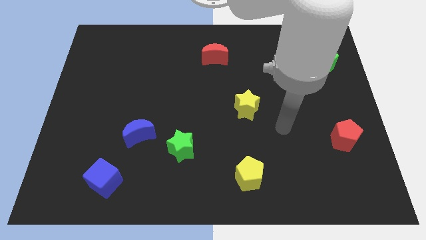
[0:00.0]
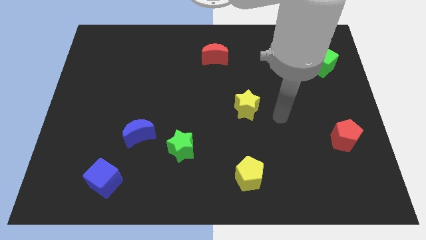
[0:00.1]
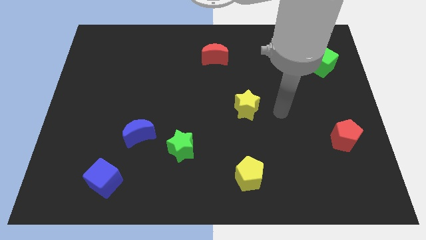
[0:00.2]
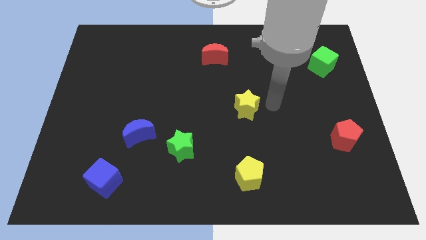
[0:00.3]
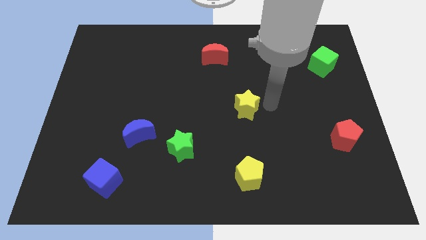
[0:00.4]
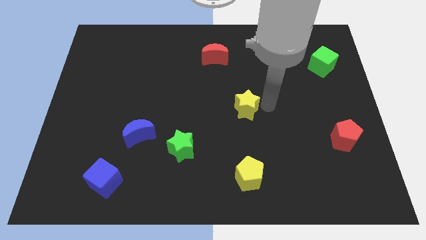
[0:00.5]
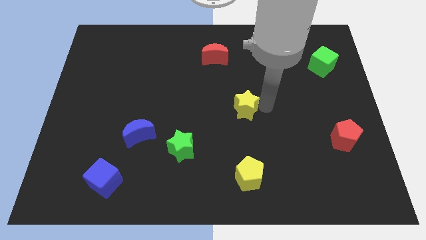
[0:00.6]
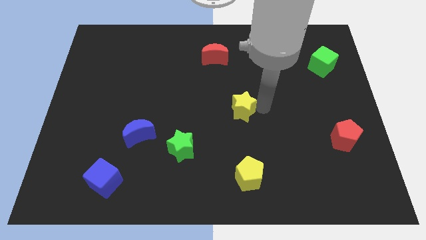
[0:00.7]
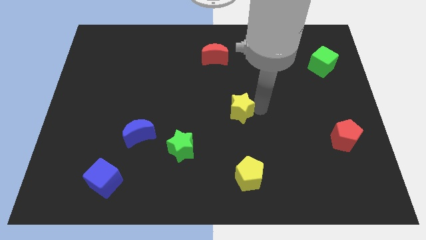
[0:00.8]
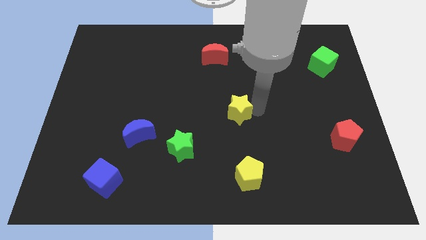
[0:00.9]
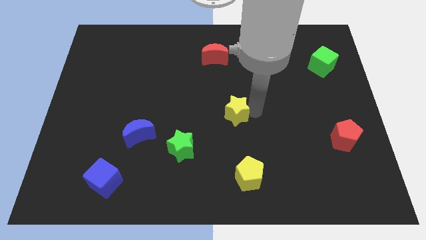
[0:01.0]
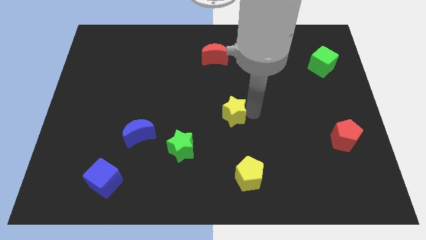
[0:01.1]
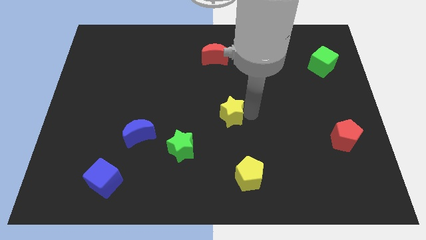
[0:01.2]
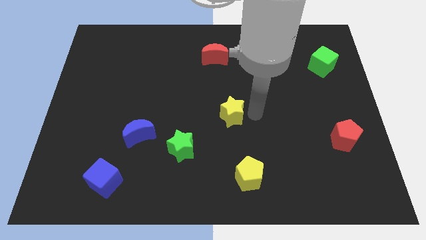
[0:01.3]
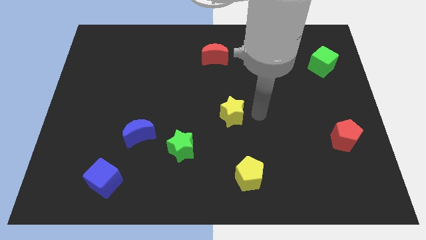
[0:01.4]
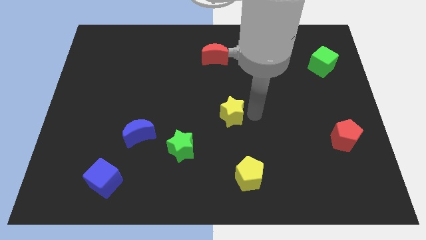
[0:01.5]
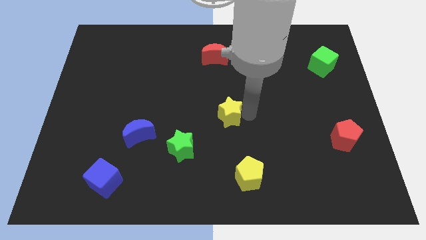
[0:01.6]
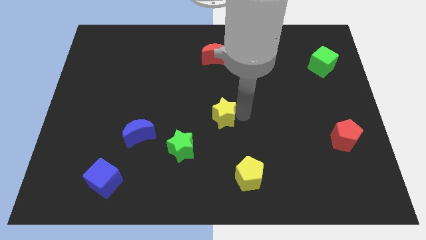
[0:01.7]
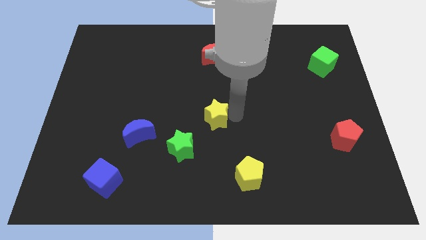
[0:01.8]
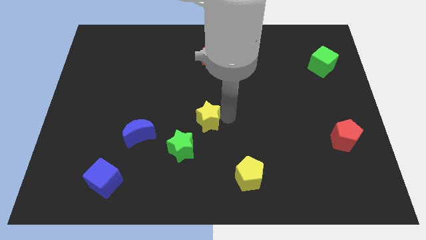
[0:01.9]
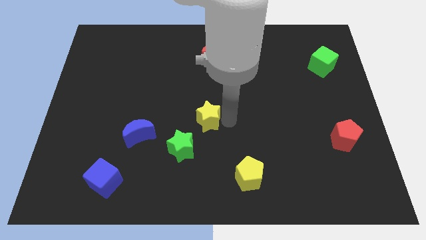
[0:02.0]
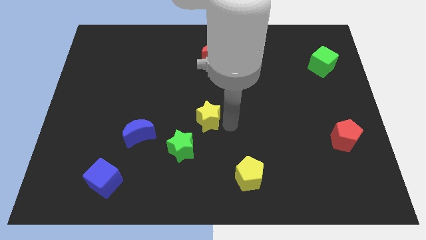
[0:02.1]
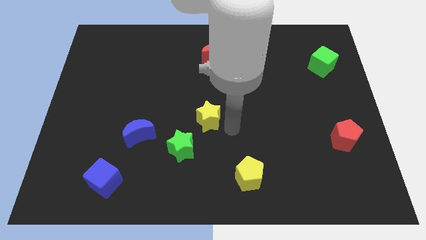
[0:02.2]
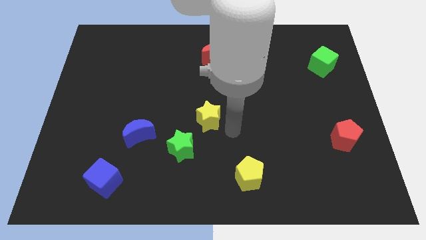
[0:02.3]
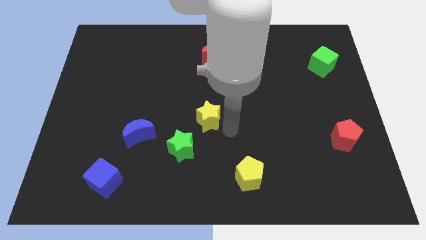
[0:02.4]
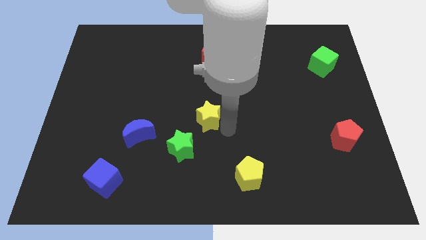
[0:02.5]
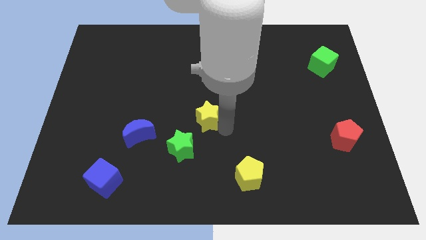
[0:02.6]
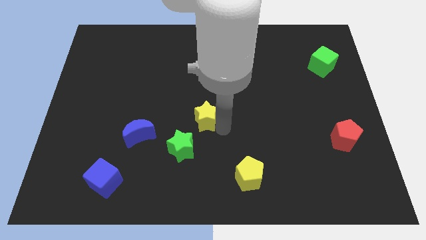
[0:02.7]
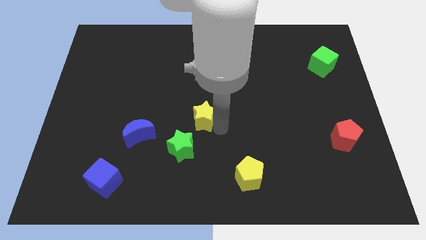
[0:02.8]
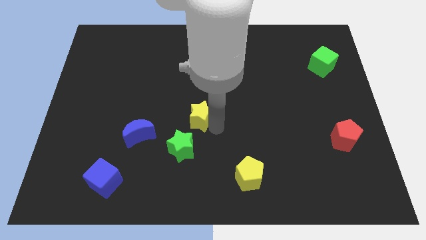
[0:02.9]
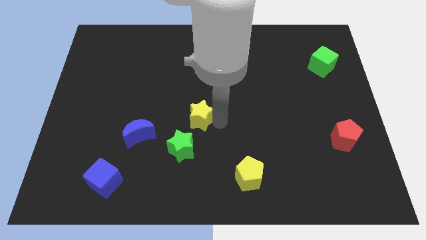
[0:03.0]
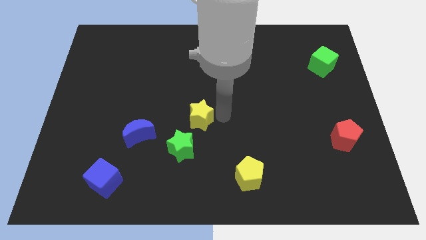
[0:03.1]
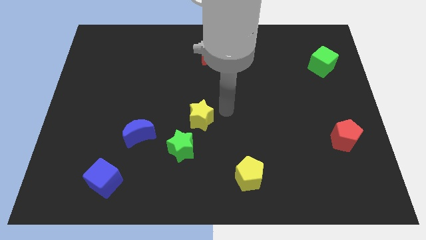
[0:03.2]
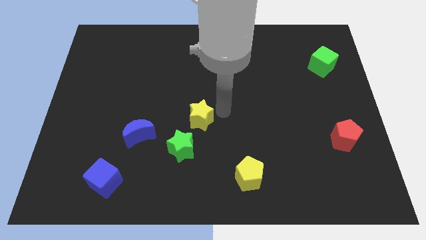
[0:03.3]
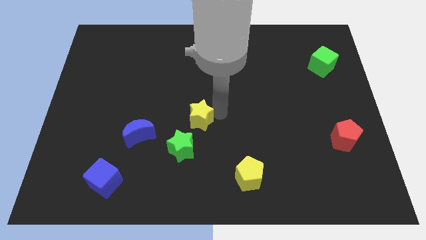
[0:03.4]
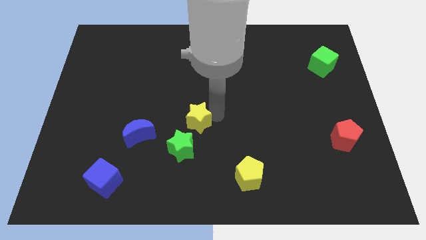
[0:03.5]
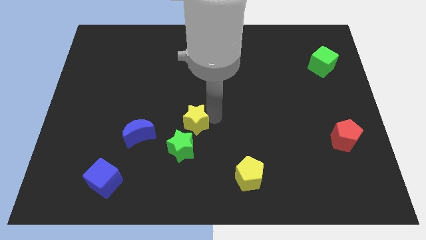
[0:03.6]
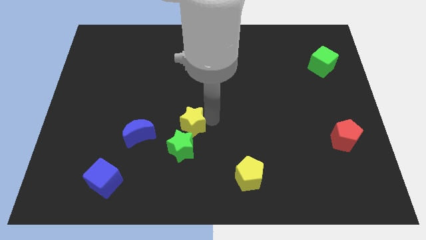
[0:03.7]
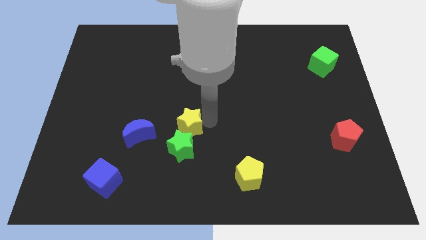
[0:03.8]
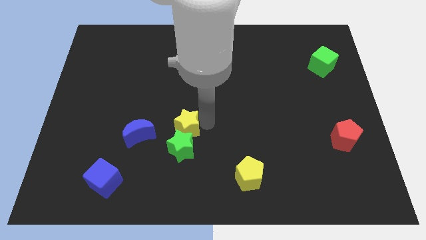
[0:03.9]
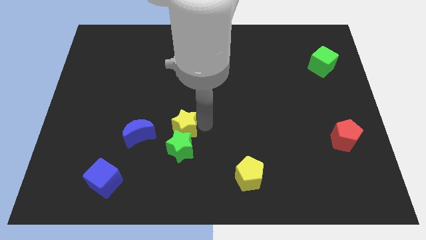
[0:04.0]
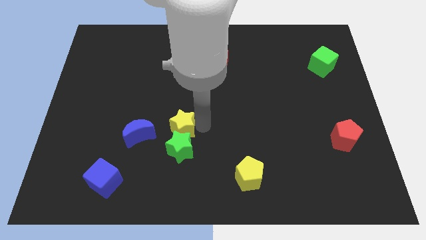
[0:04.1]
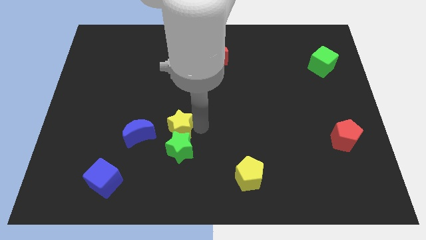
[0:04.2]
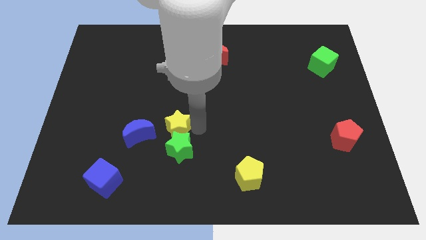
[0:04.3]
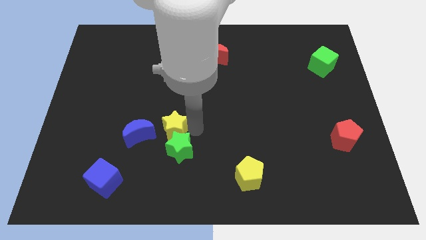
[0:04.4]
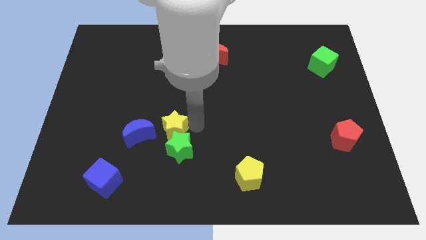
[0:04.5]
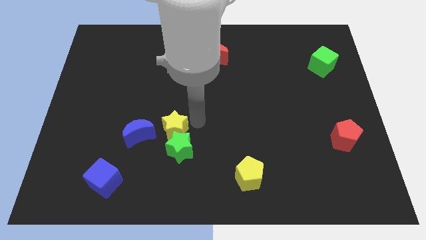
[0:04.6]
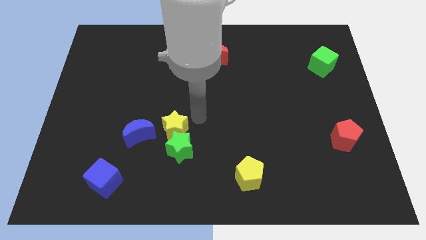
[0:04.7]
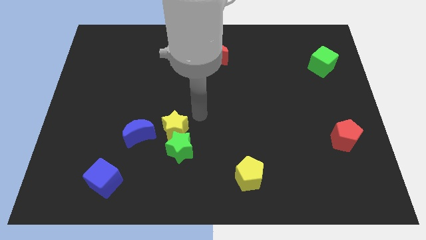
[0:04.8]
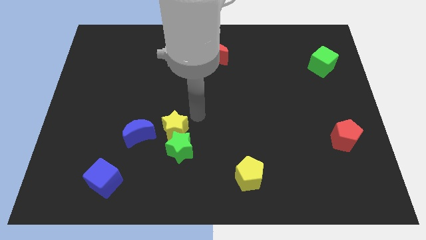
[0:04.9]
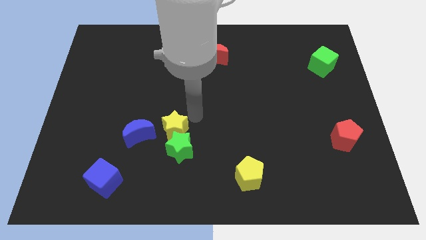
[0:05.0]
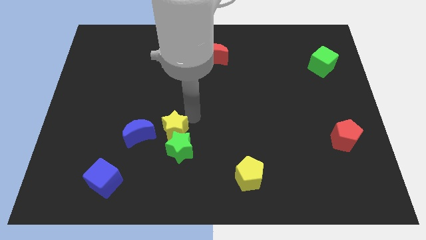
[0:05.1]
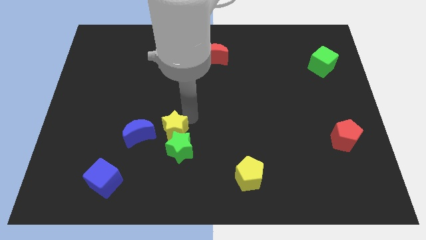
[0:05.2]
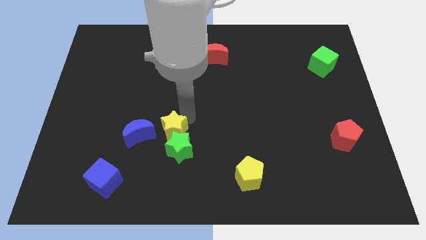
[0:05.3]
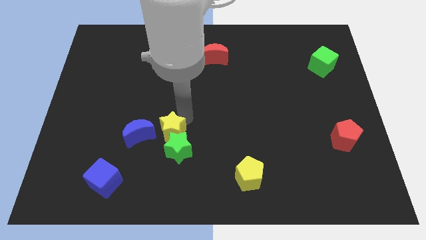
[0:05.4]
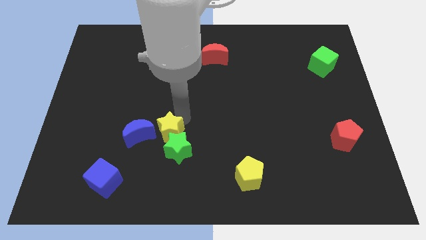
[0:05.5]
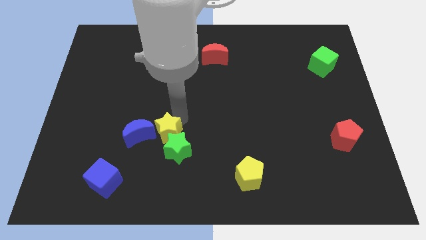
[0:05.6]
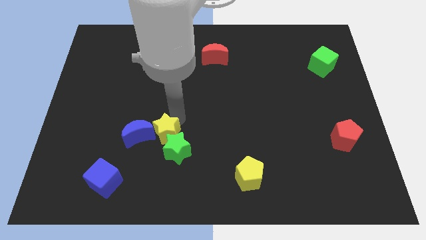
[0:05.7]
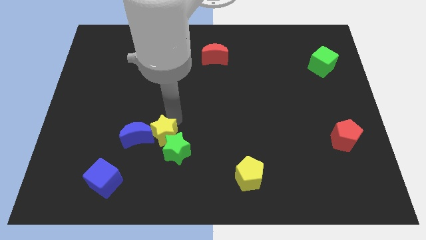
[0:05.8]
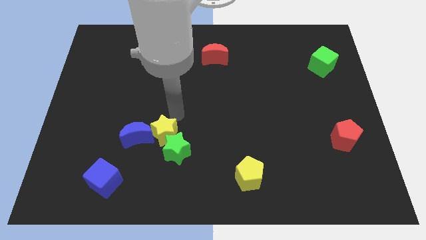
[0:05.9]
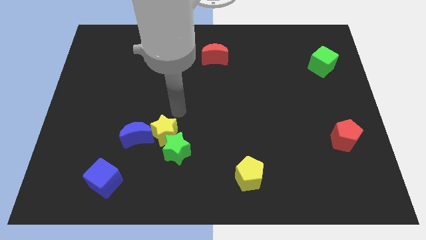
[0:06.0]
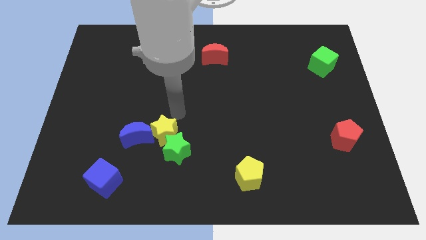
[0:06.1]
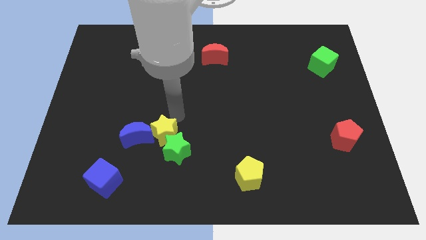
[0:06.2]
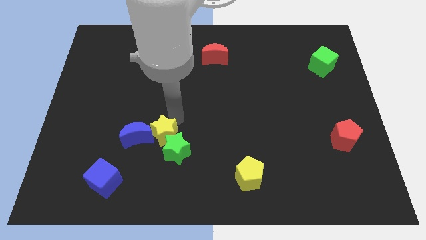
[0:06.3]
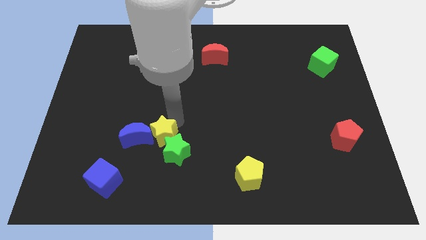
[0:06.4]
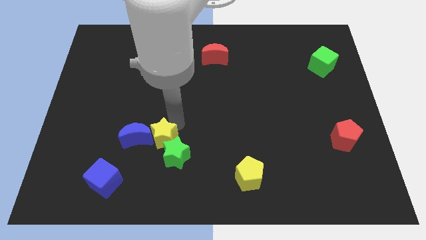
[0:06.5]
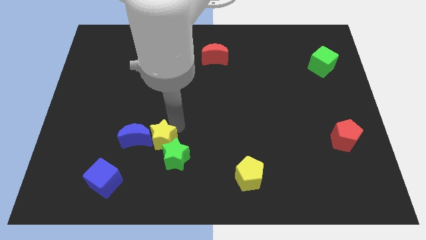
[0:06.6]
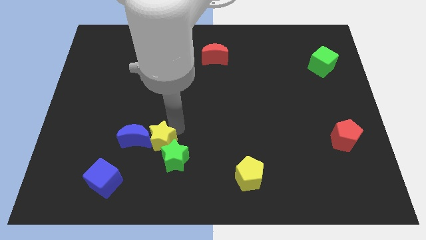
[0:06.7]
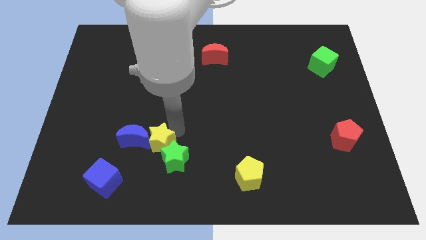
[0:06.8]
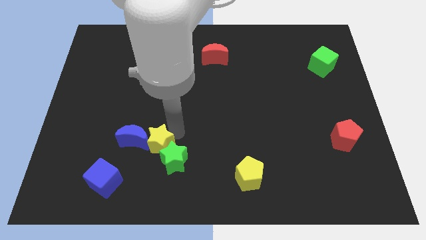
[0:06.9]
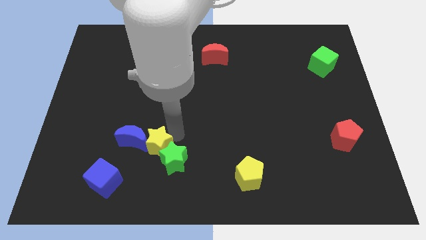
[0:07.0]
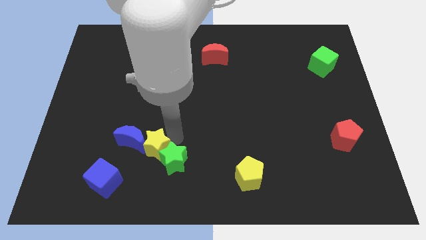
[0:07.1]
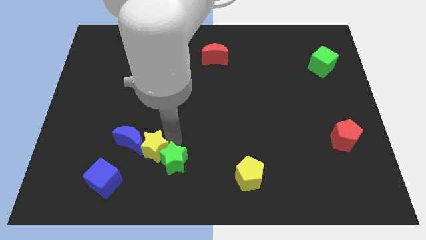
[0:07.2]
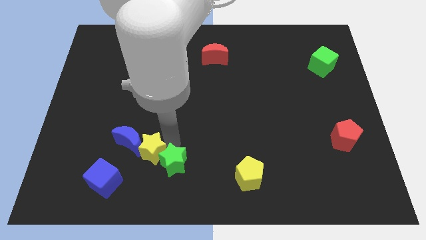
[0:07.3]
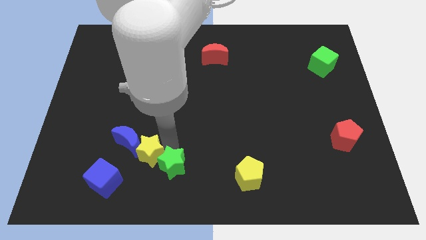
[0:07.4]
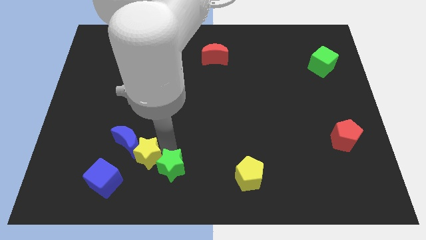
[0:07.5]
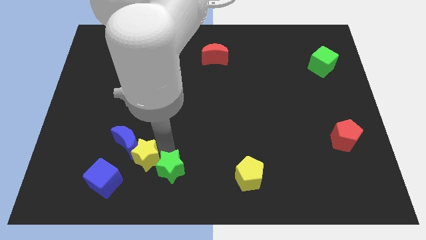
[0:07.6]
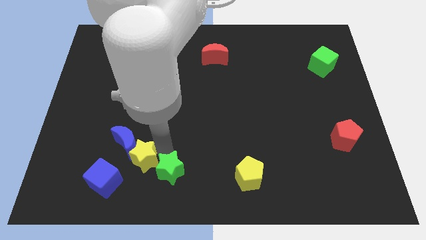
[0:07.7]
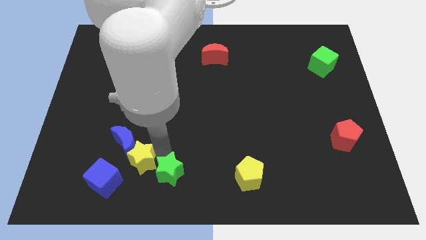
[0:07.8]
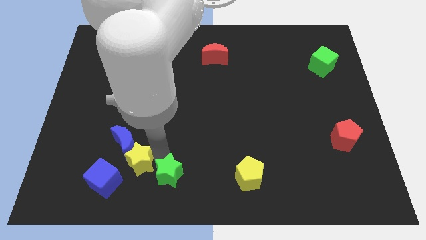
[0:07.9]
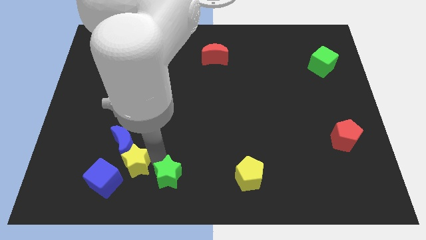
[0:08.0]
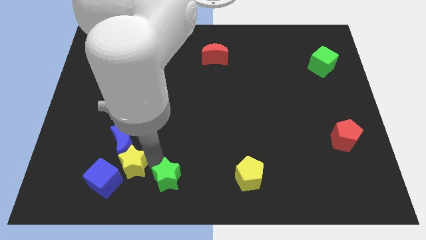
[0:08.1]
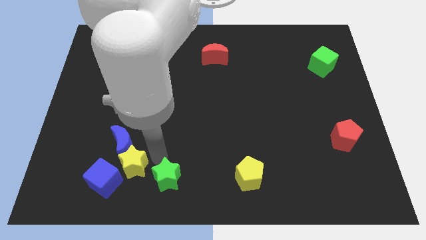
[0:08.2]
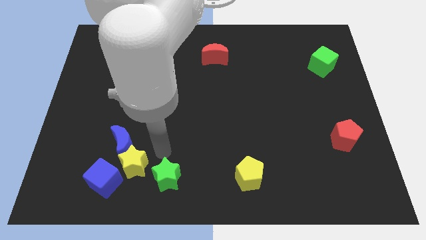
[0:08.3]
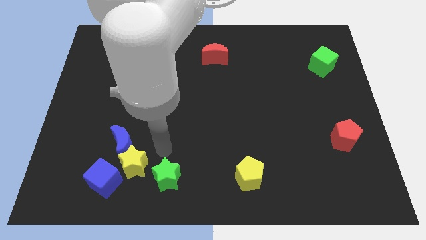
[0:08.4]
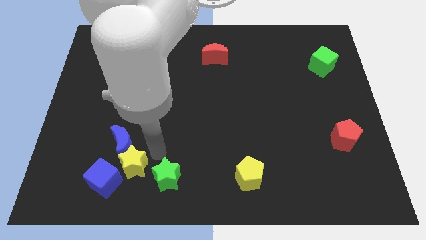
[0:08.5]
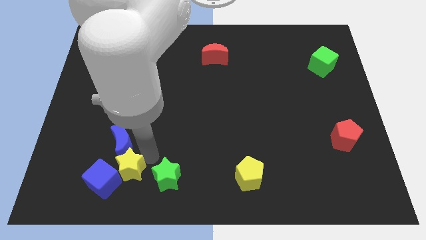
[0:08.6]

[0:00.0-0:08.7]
push the yellow star next to the blue cube
